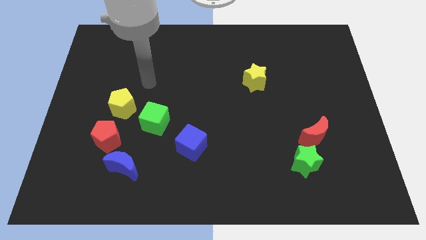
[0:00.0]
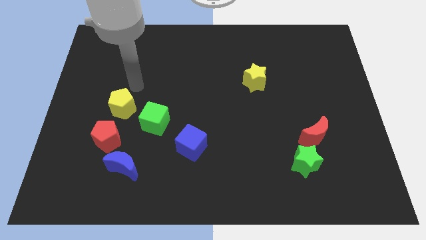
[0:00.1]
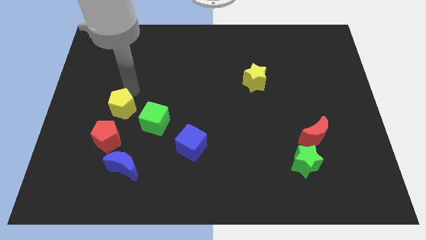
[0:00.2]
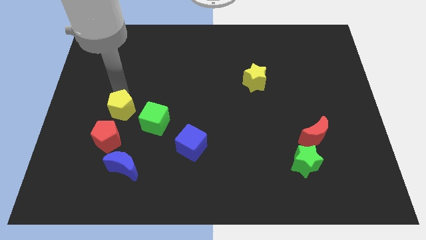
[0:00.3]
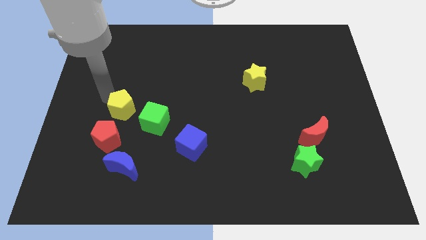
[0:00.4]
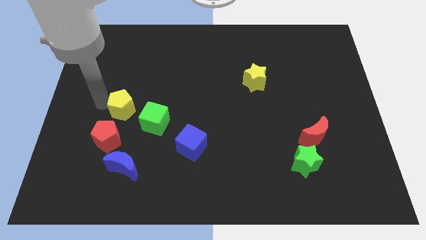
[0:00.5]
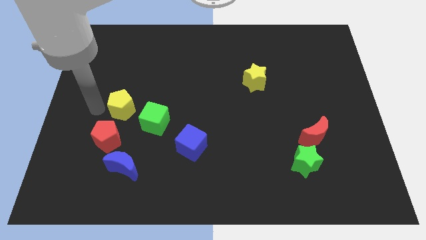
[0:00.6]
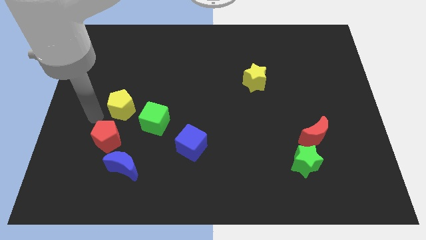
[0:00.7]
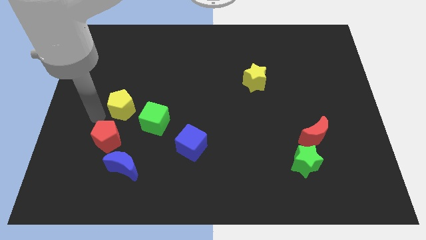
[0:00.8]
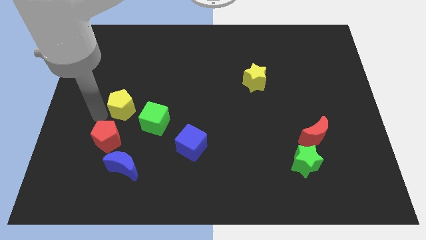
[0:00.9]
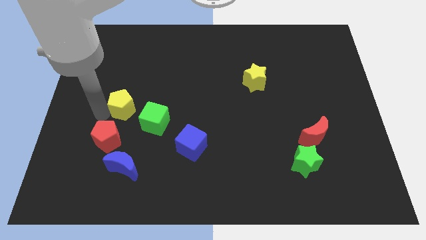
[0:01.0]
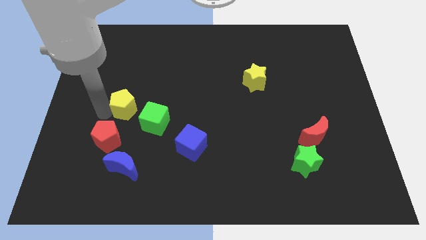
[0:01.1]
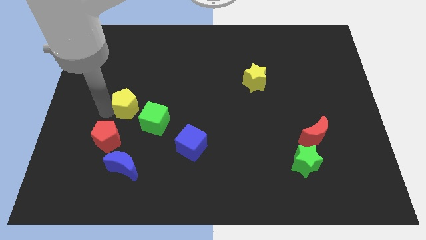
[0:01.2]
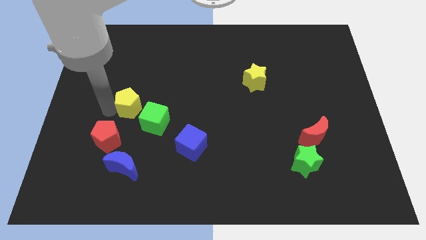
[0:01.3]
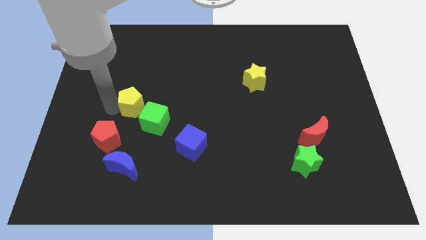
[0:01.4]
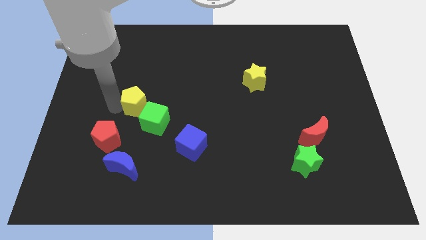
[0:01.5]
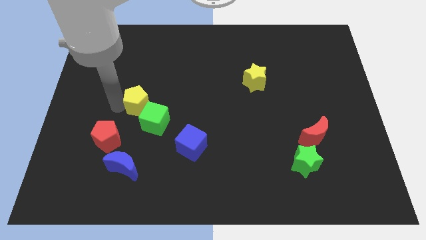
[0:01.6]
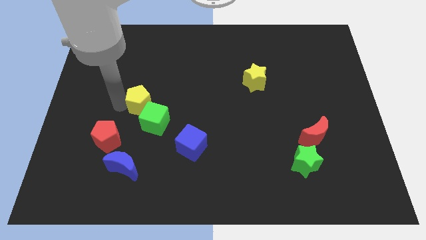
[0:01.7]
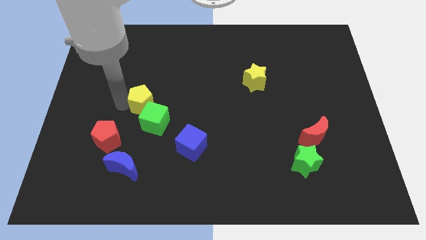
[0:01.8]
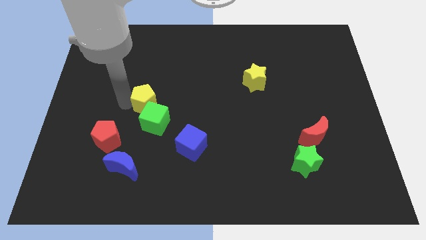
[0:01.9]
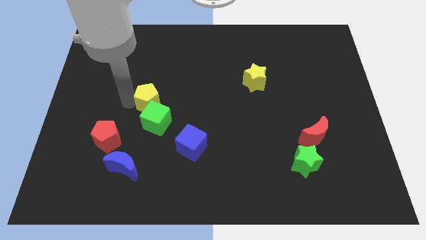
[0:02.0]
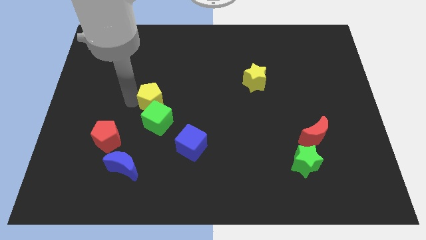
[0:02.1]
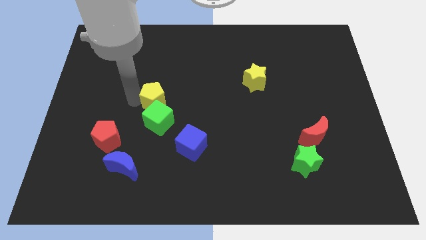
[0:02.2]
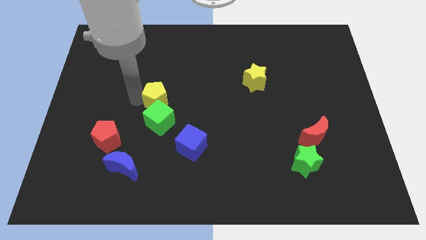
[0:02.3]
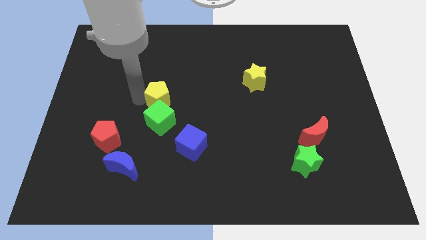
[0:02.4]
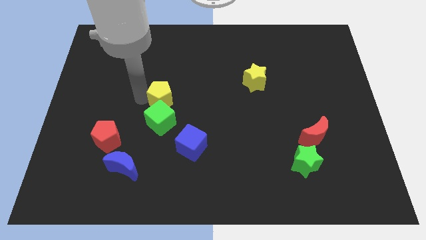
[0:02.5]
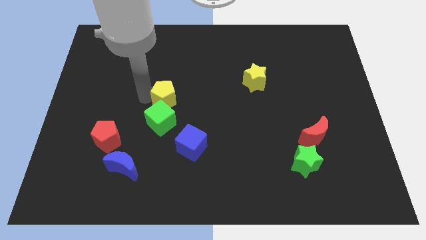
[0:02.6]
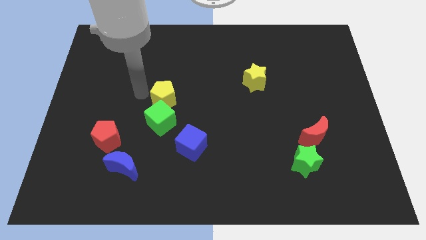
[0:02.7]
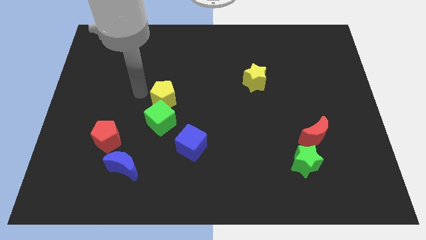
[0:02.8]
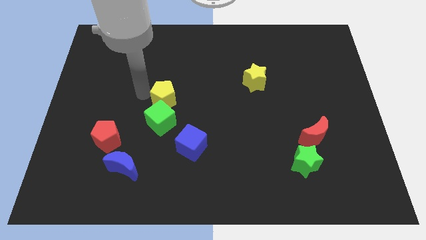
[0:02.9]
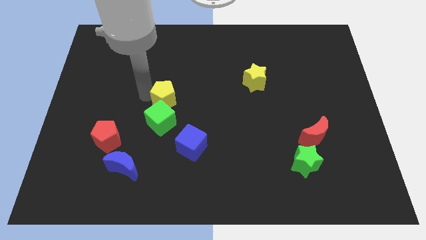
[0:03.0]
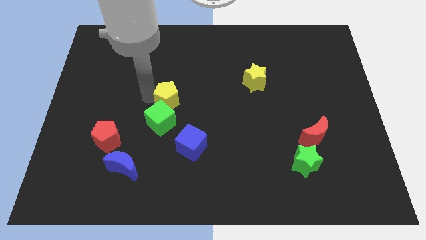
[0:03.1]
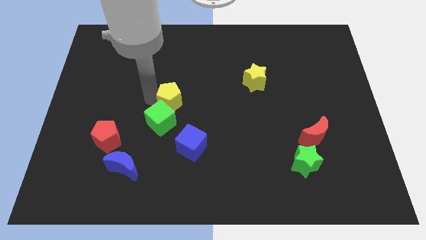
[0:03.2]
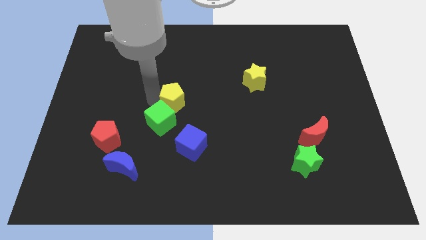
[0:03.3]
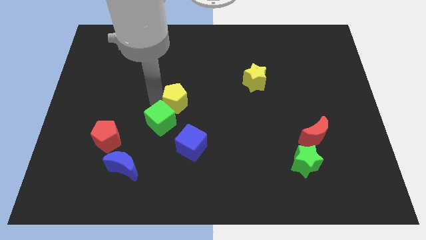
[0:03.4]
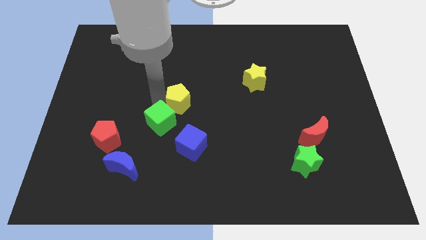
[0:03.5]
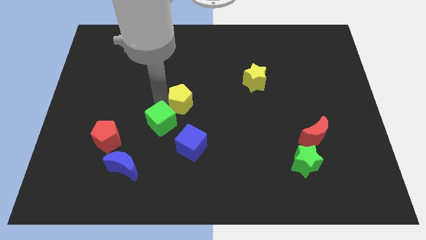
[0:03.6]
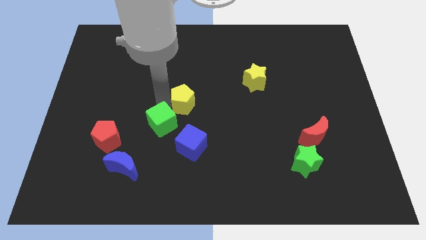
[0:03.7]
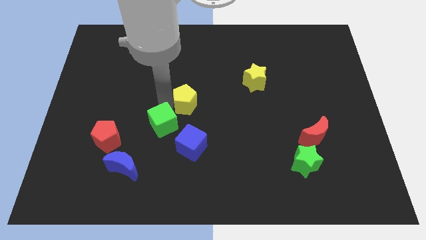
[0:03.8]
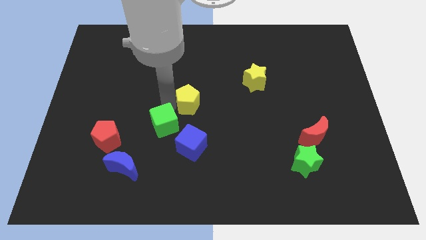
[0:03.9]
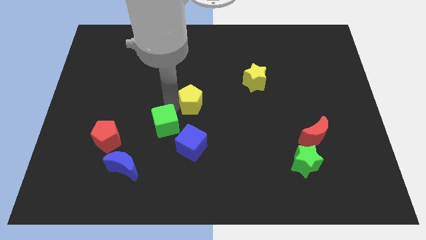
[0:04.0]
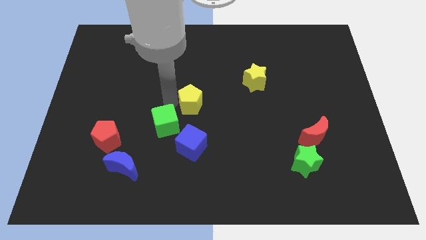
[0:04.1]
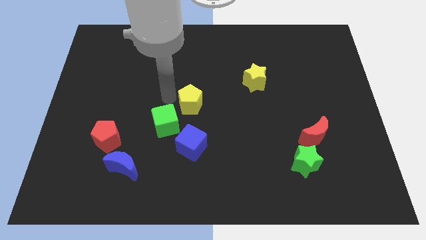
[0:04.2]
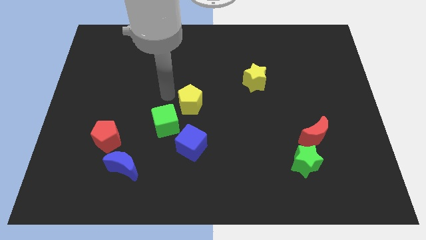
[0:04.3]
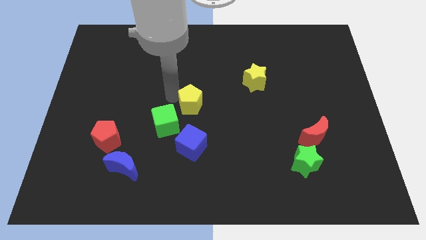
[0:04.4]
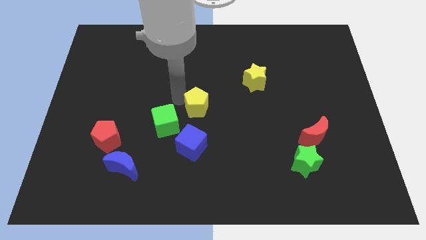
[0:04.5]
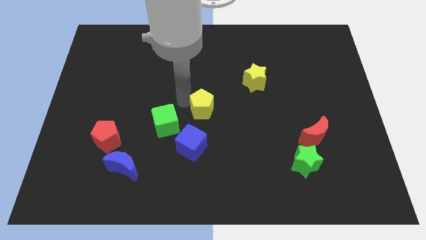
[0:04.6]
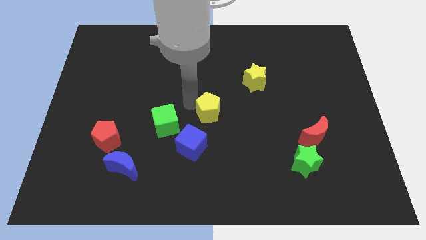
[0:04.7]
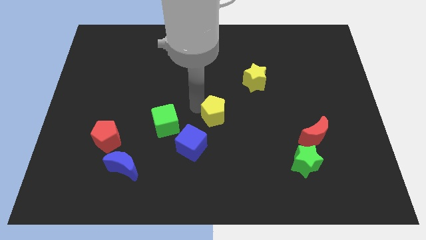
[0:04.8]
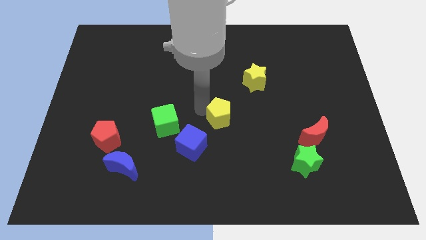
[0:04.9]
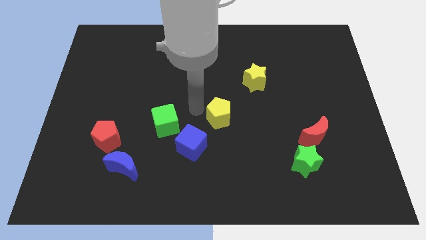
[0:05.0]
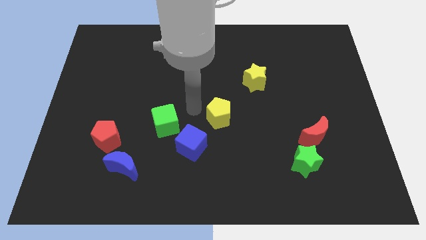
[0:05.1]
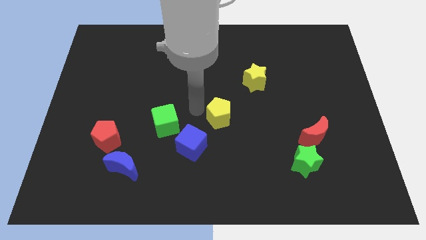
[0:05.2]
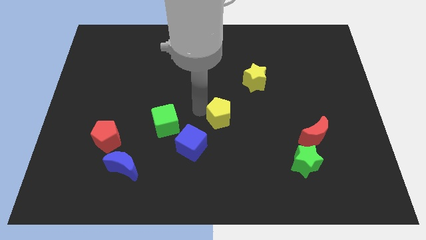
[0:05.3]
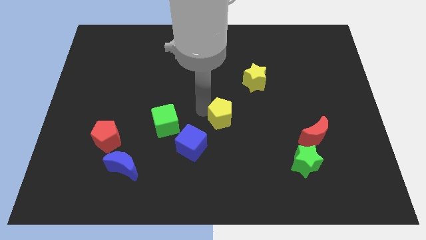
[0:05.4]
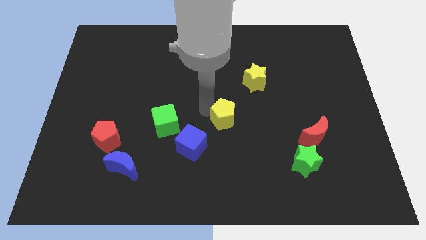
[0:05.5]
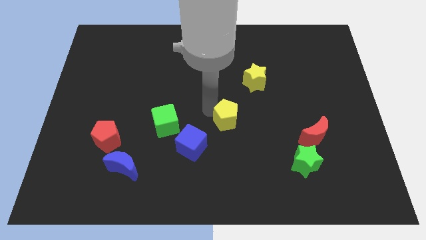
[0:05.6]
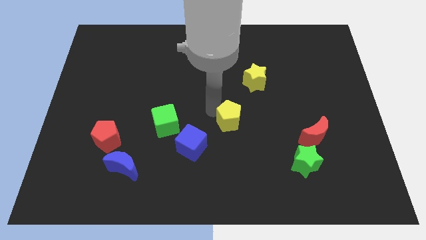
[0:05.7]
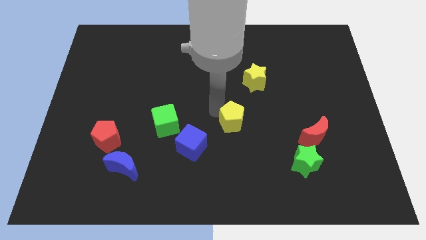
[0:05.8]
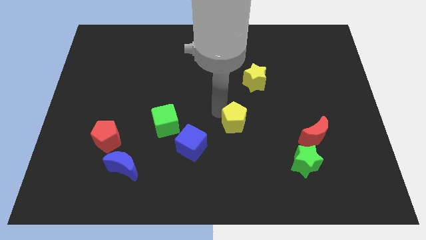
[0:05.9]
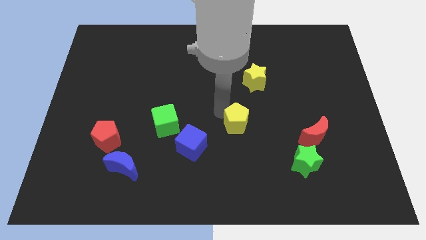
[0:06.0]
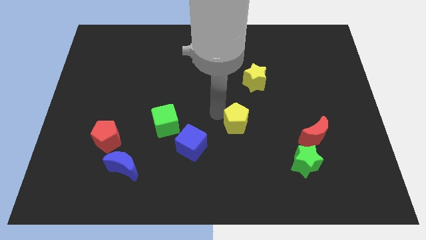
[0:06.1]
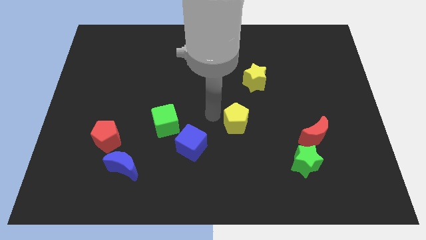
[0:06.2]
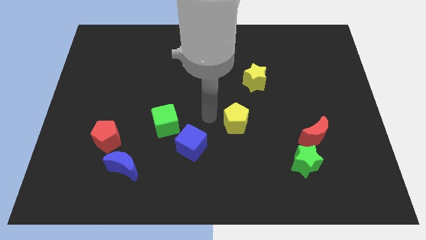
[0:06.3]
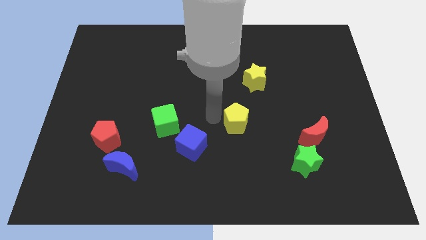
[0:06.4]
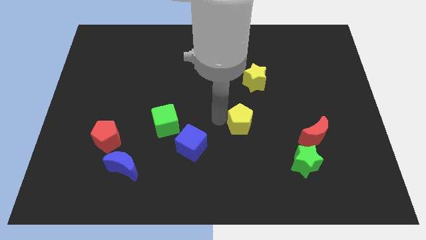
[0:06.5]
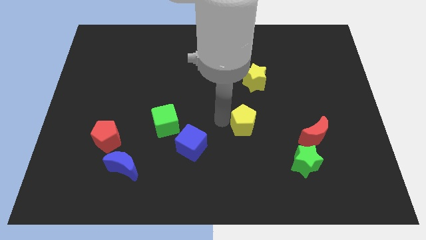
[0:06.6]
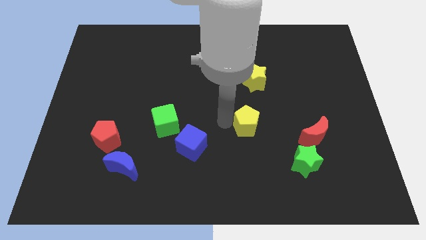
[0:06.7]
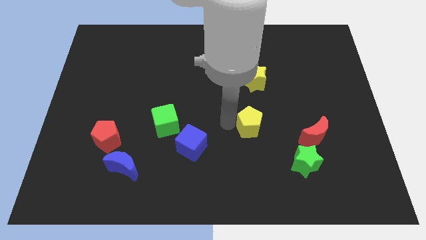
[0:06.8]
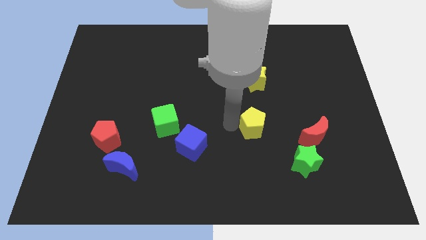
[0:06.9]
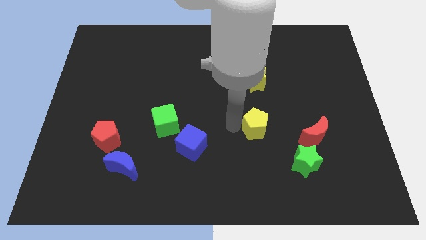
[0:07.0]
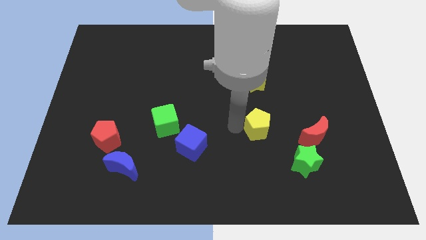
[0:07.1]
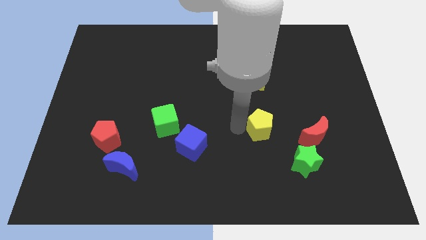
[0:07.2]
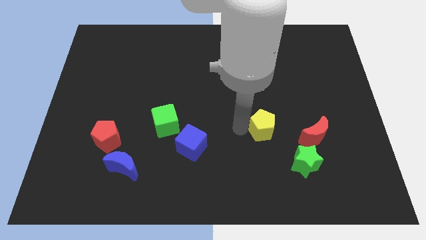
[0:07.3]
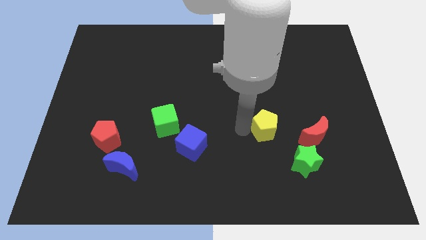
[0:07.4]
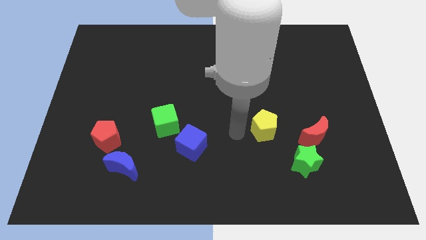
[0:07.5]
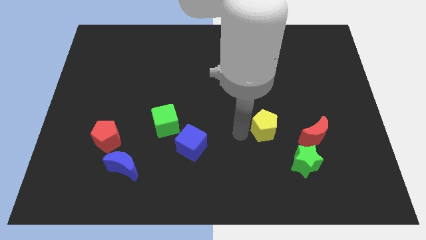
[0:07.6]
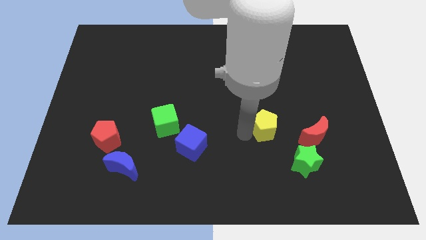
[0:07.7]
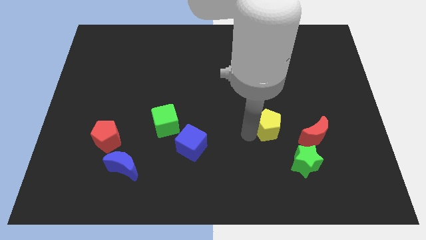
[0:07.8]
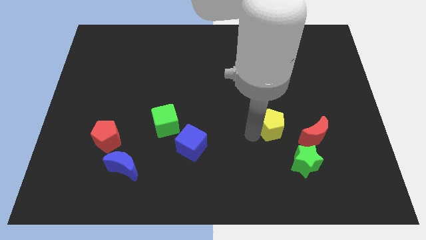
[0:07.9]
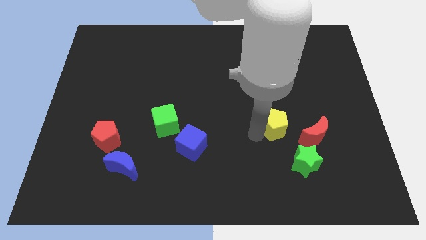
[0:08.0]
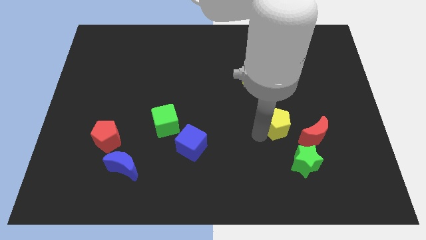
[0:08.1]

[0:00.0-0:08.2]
put the yellow pentagon to the top side of the green star
